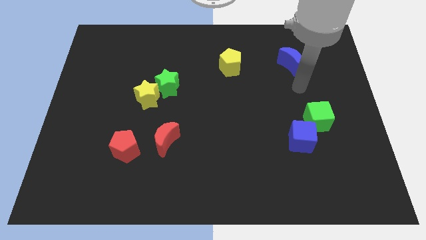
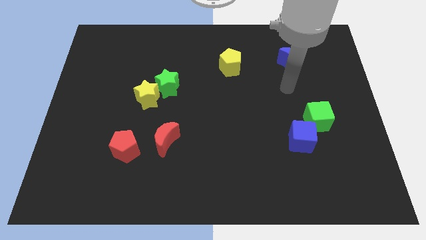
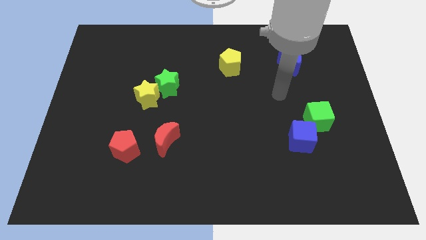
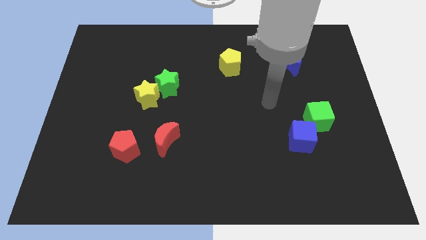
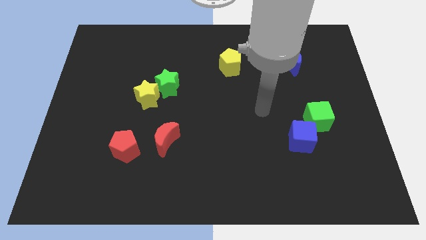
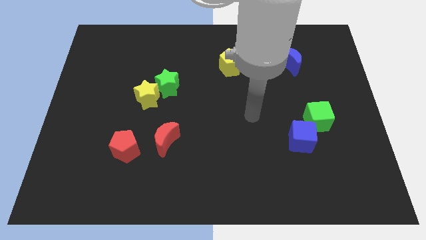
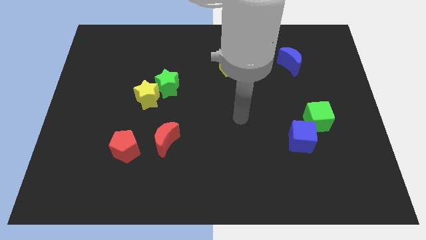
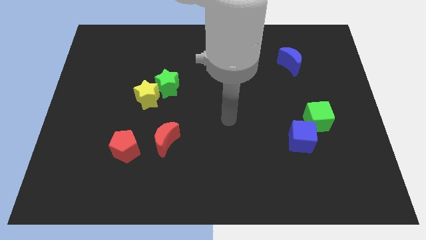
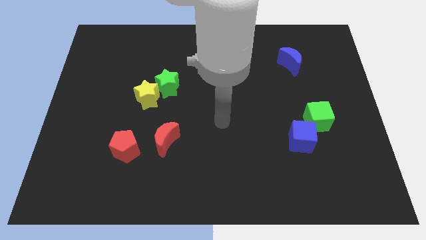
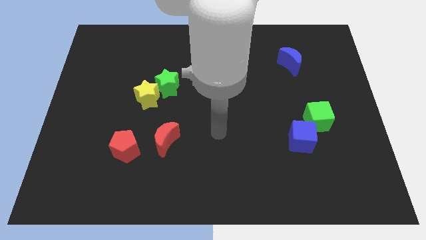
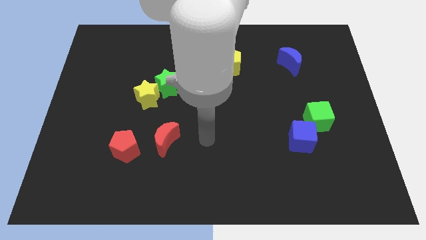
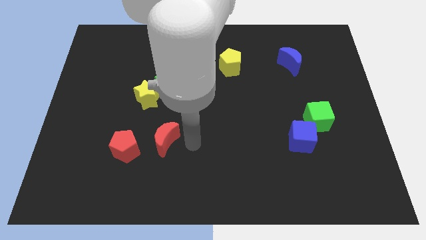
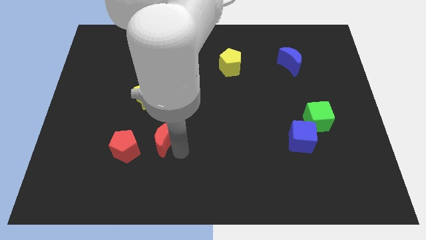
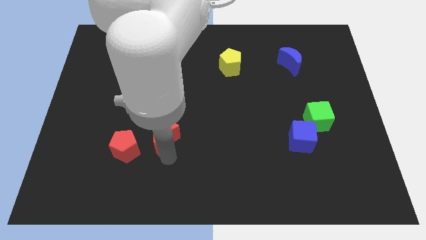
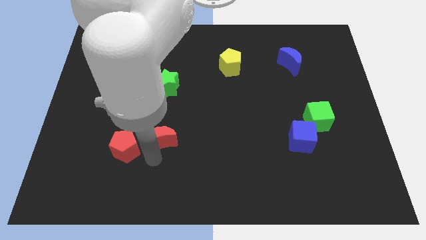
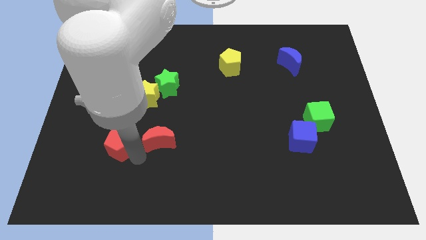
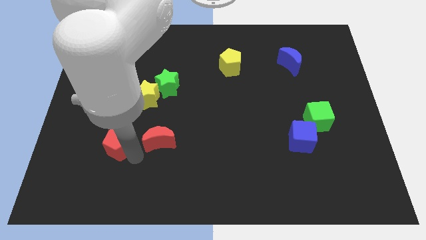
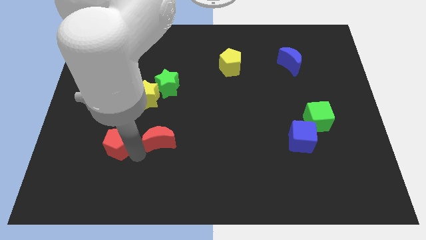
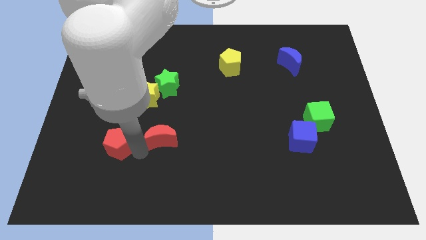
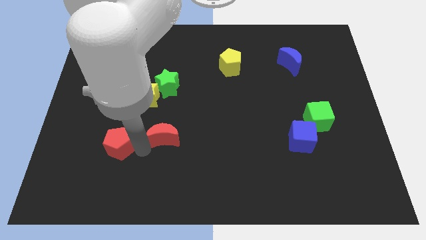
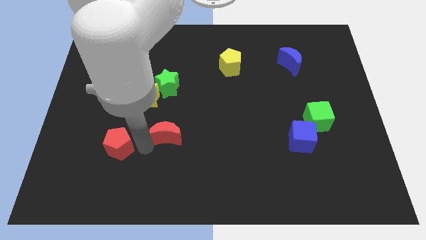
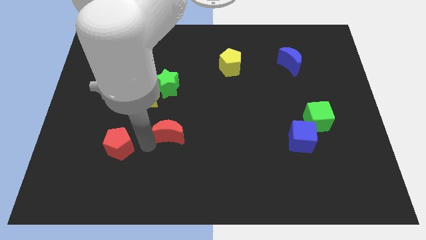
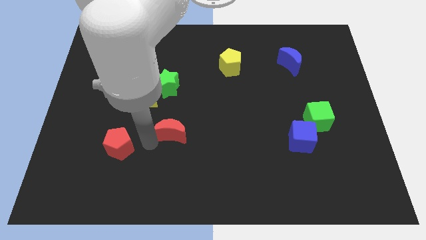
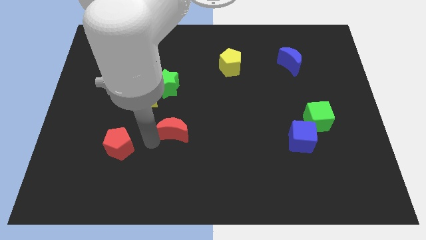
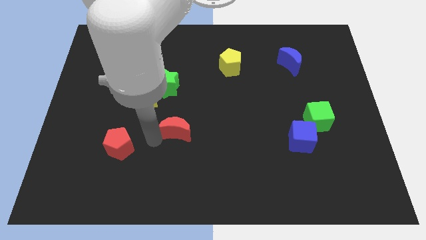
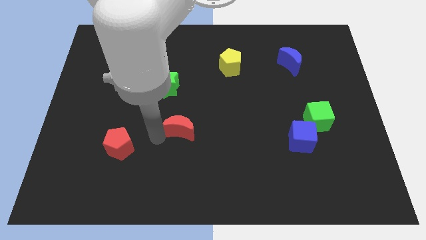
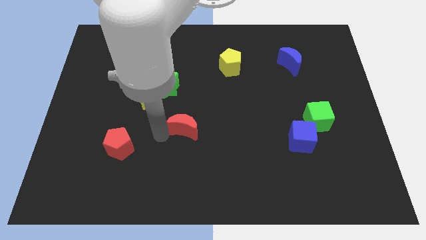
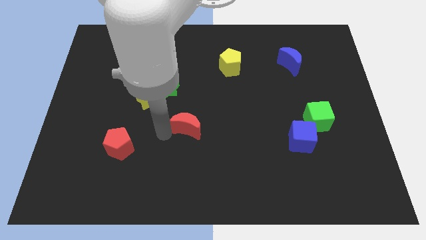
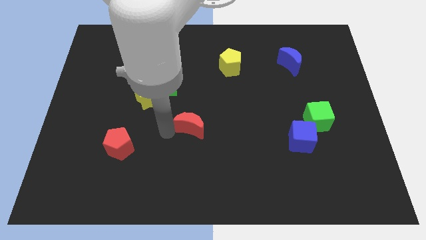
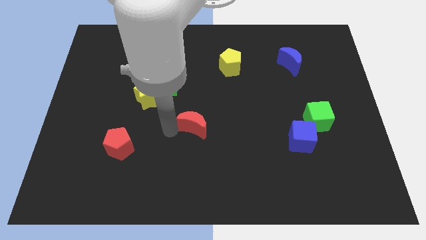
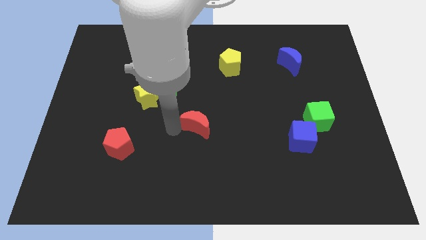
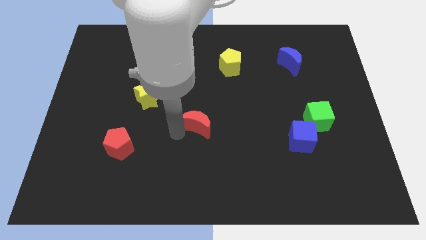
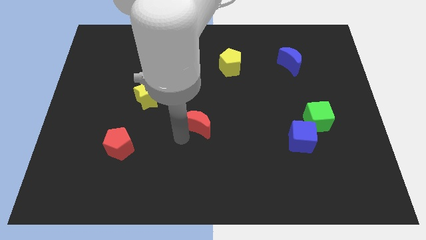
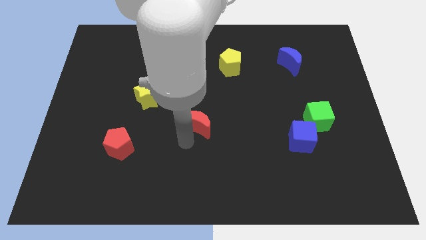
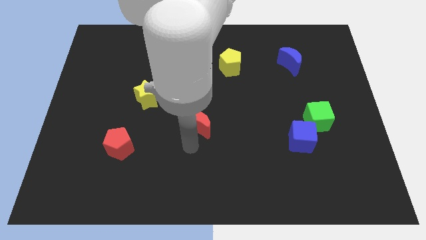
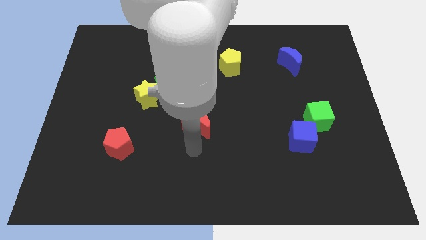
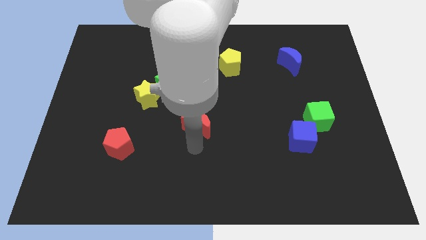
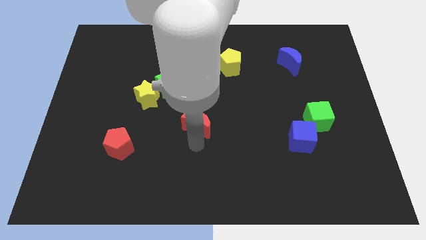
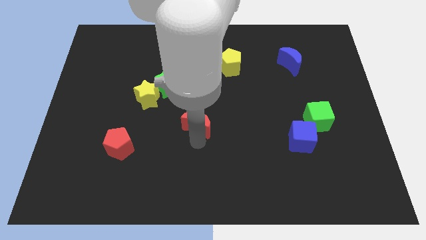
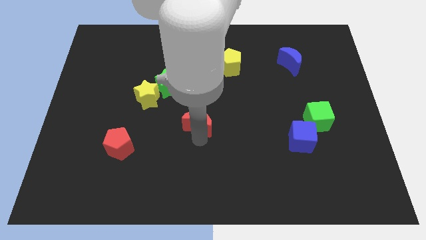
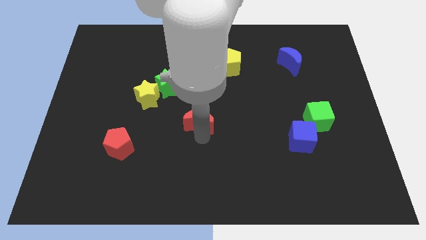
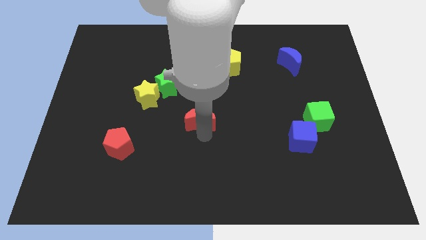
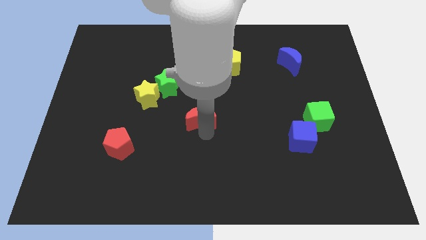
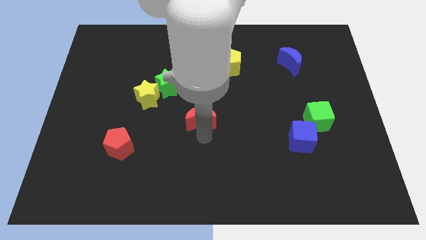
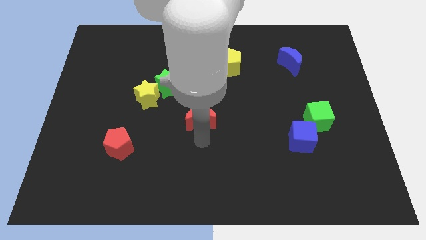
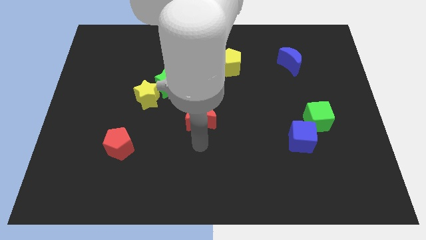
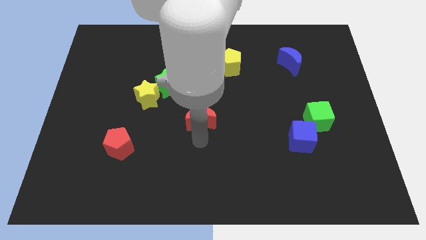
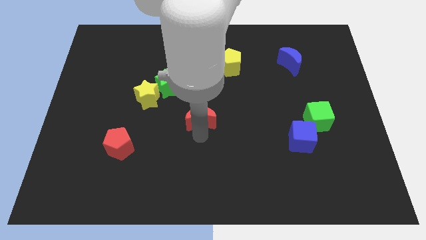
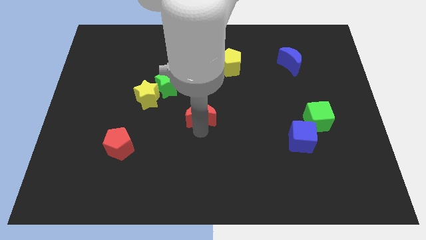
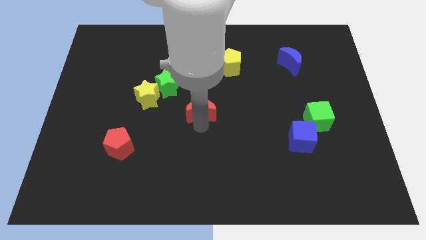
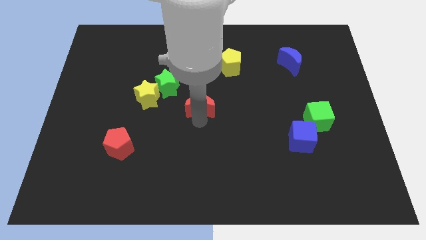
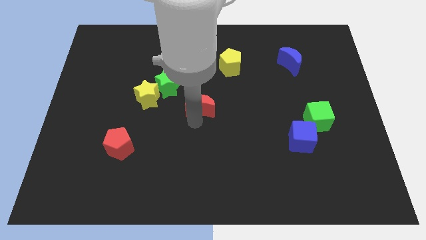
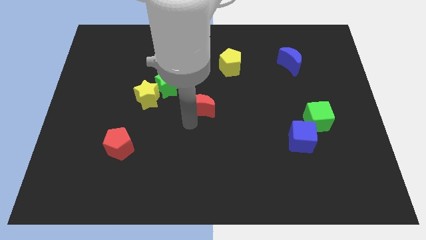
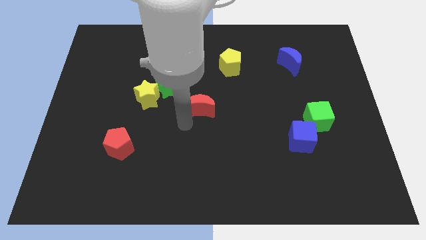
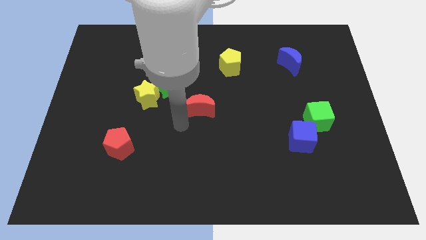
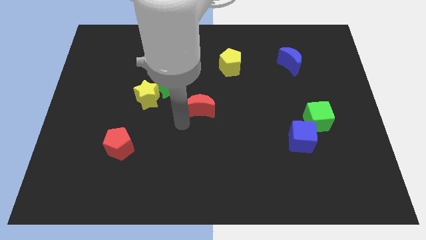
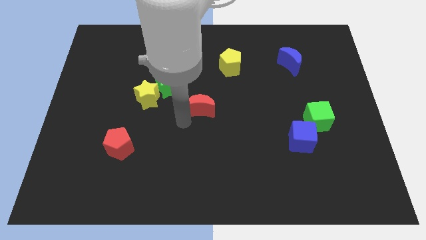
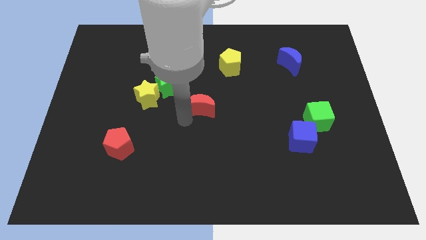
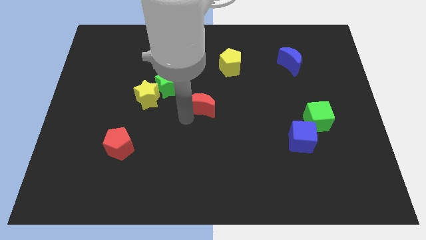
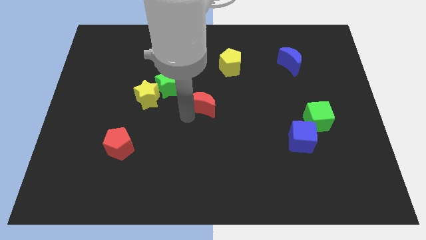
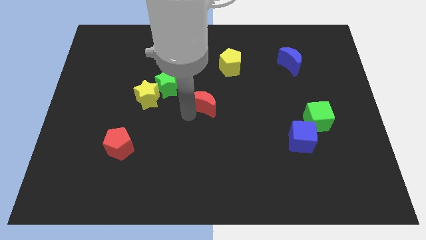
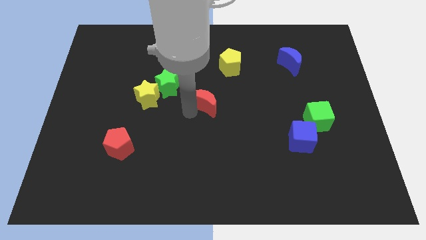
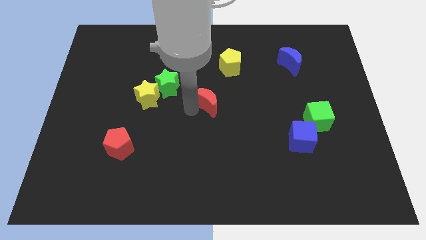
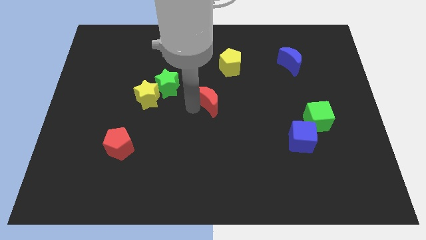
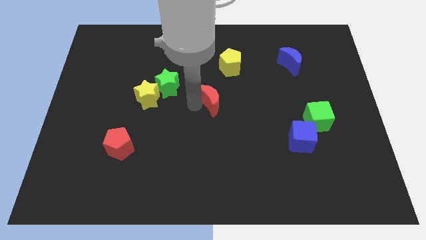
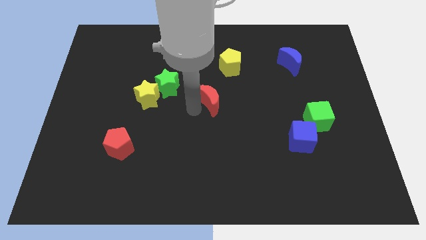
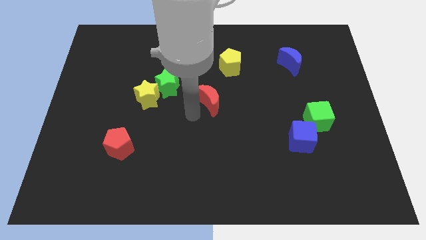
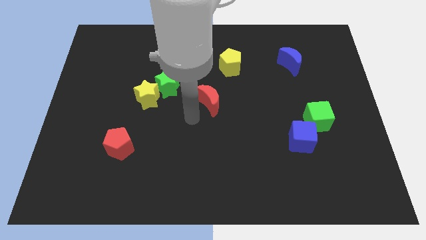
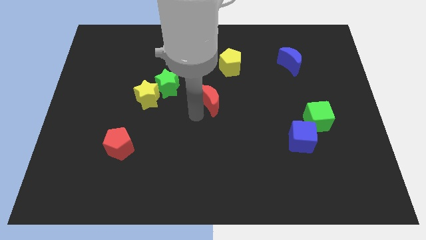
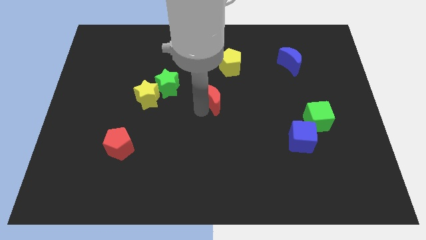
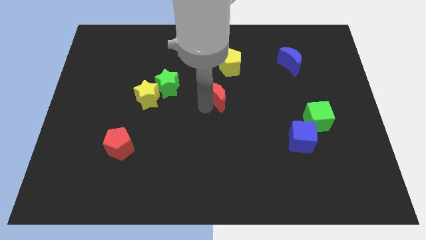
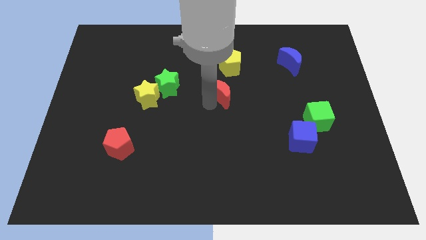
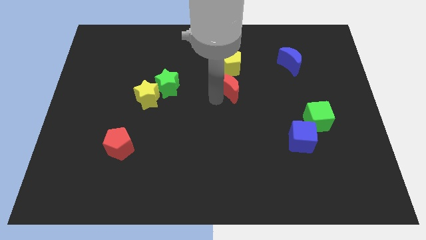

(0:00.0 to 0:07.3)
slide the red moon up and right diagonally

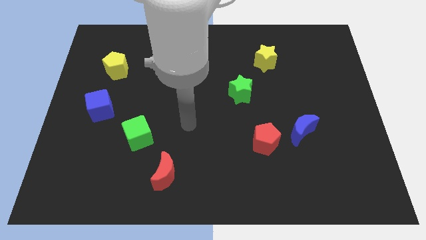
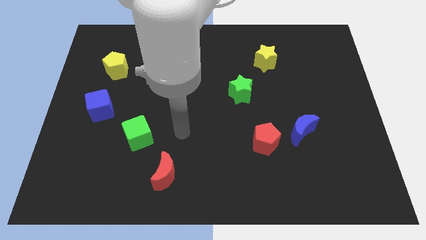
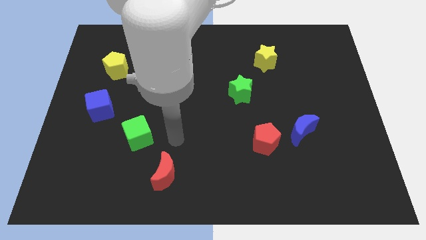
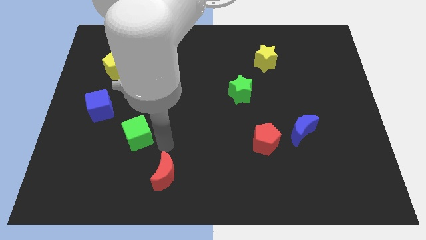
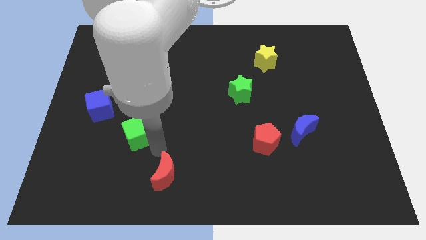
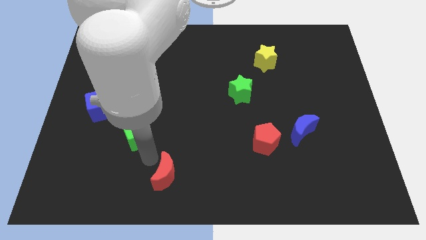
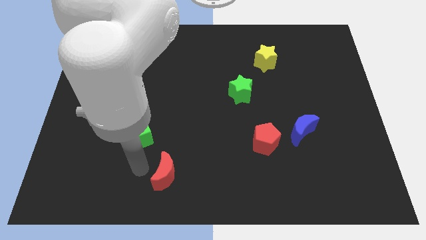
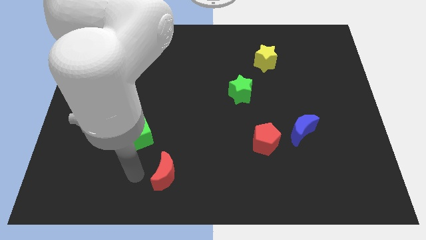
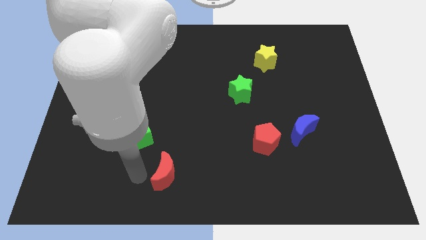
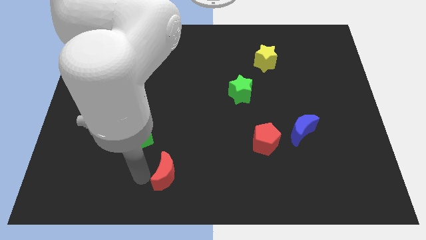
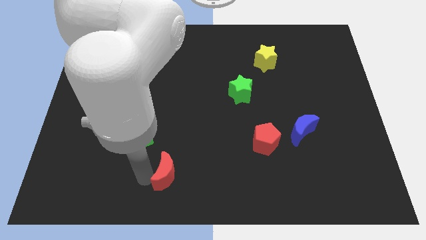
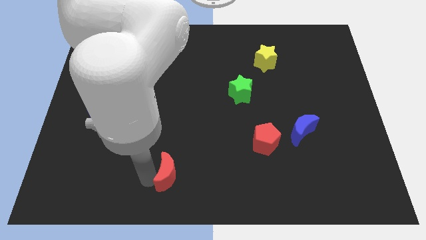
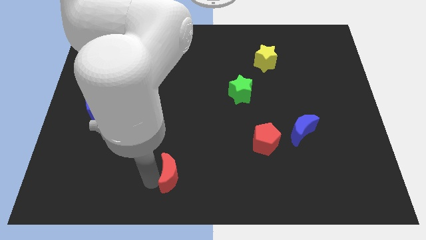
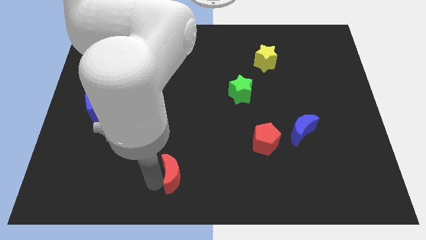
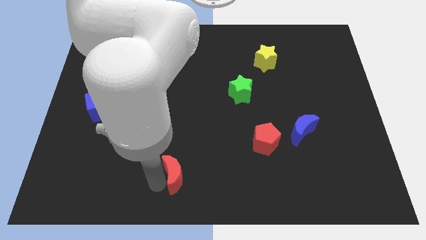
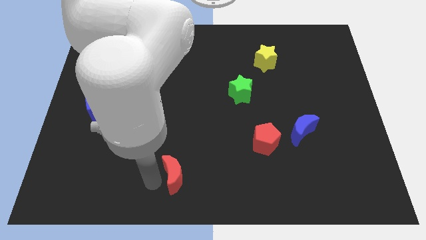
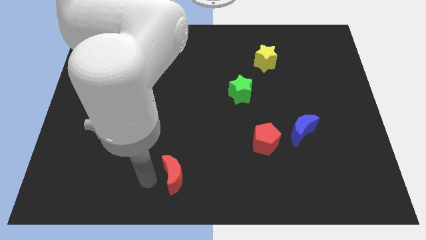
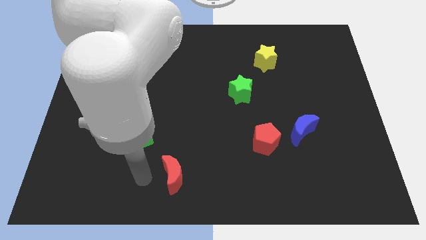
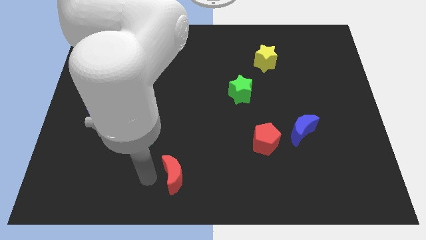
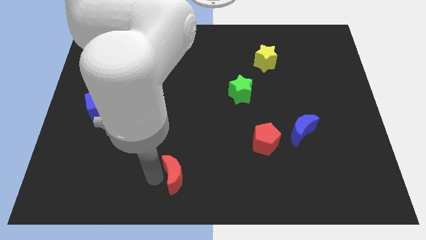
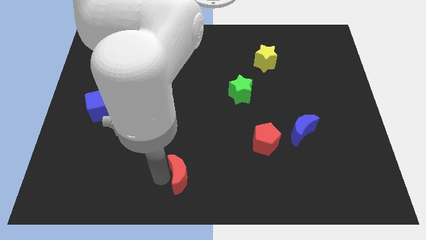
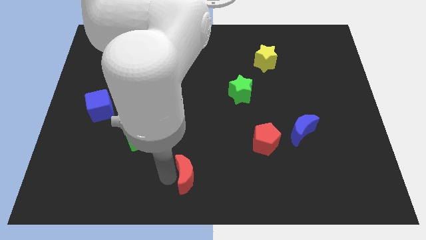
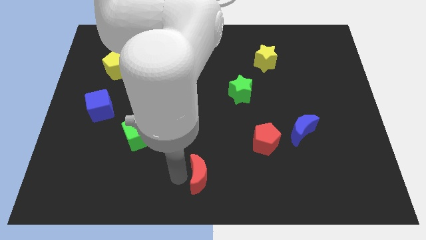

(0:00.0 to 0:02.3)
slightly slide the red moon to the right
